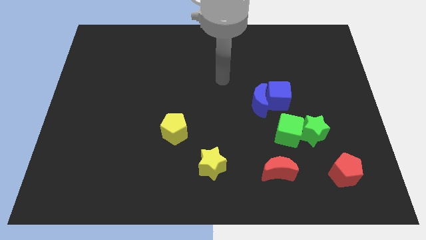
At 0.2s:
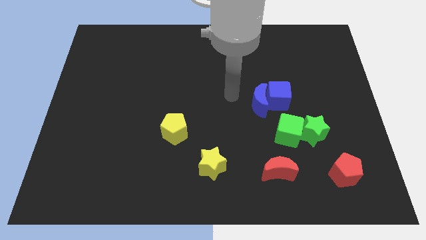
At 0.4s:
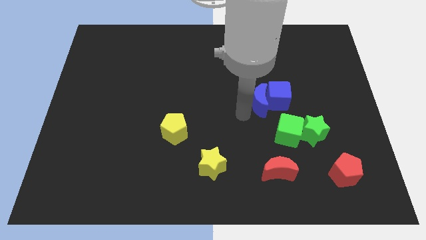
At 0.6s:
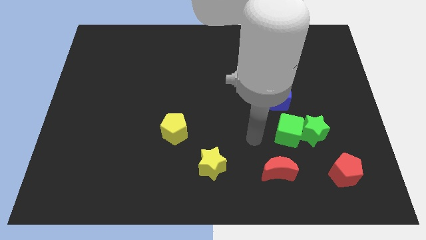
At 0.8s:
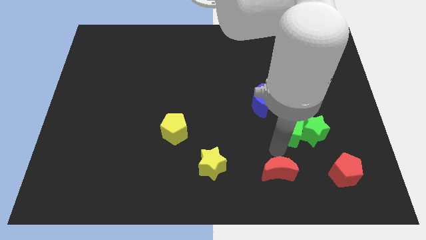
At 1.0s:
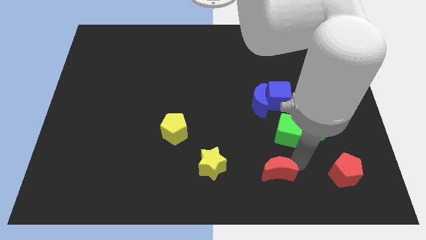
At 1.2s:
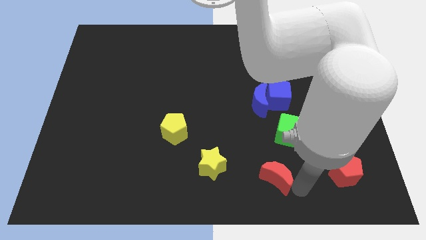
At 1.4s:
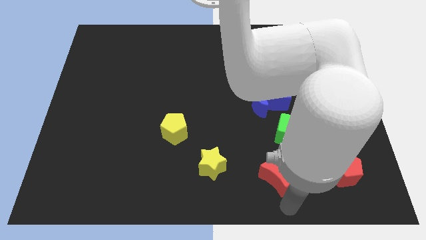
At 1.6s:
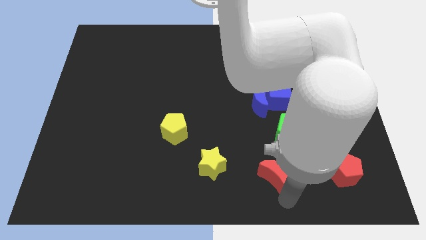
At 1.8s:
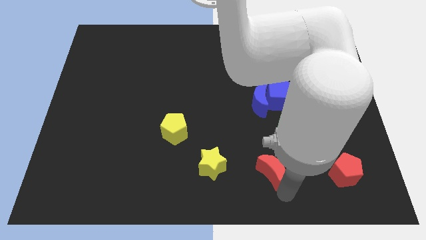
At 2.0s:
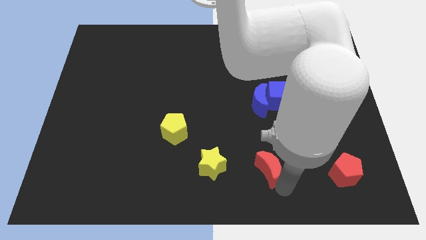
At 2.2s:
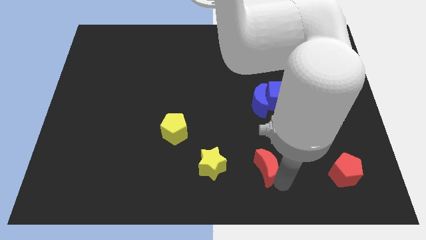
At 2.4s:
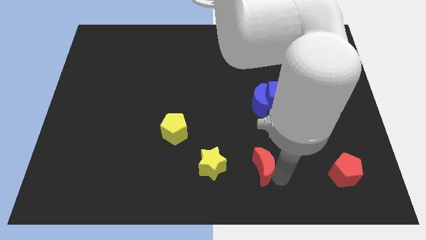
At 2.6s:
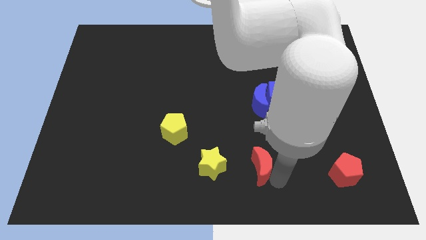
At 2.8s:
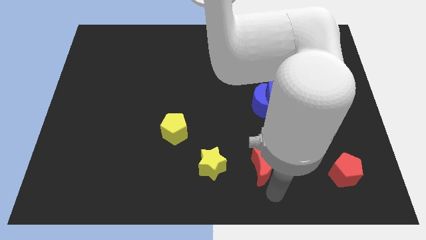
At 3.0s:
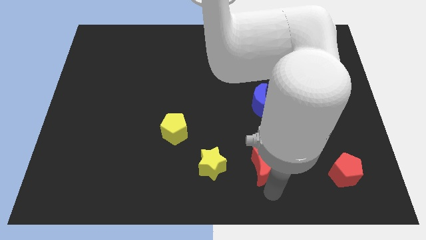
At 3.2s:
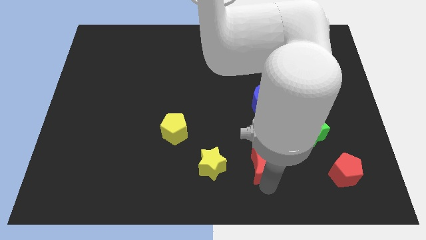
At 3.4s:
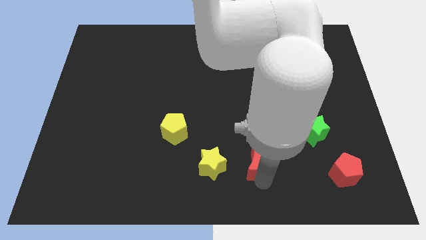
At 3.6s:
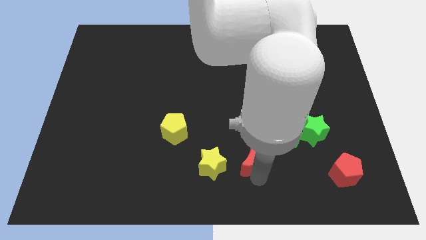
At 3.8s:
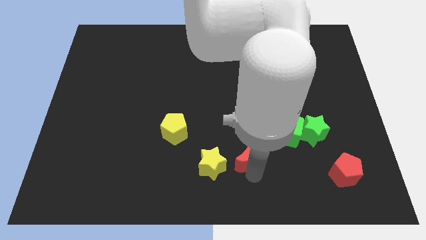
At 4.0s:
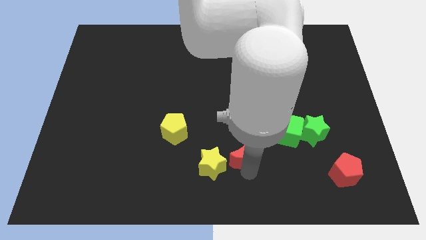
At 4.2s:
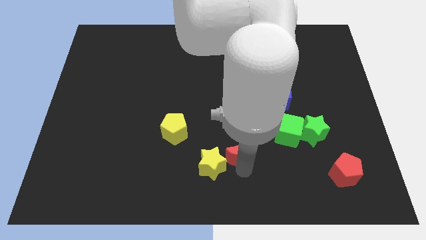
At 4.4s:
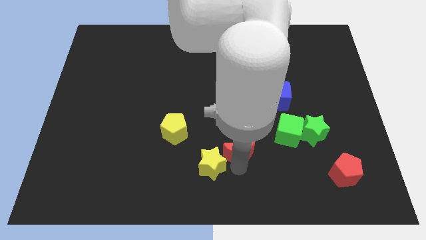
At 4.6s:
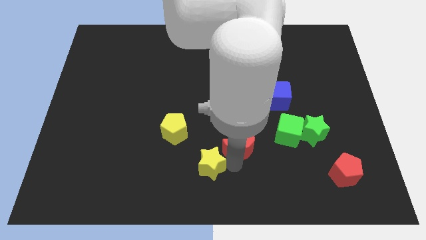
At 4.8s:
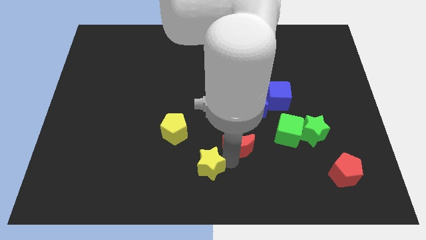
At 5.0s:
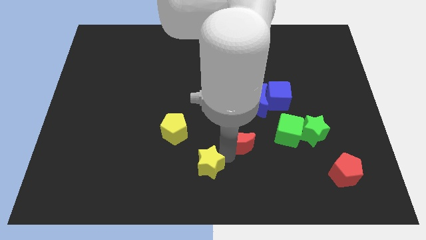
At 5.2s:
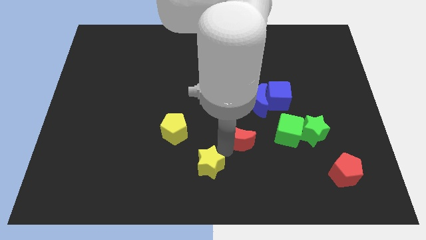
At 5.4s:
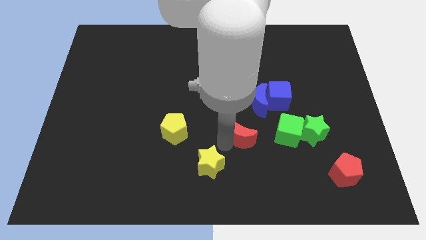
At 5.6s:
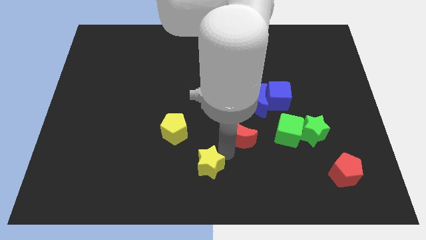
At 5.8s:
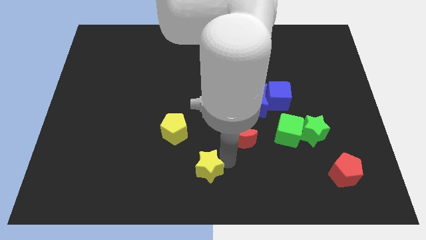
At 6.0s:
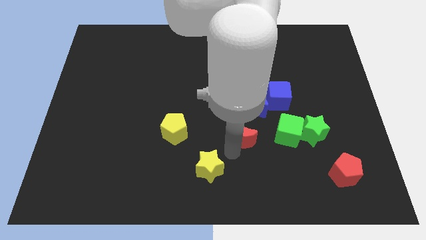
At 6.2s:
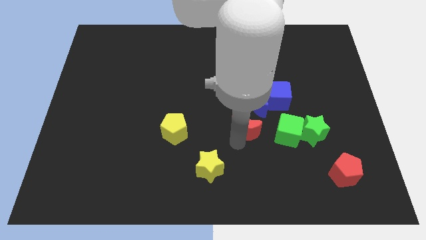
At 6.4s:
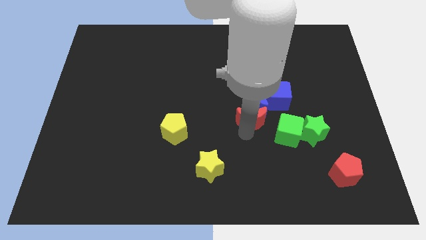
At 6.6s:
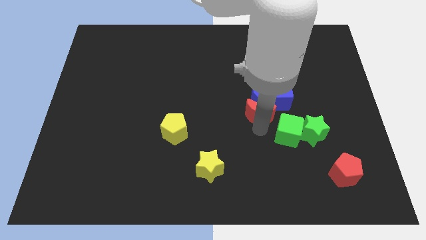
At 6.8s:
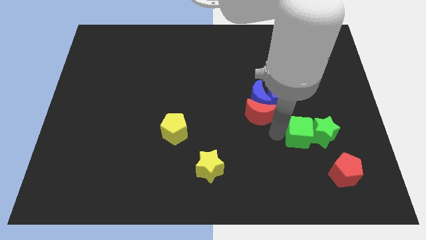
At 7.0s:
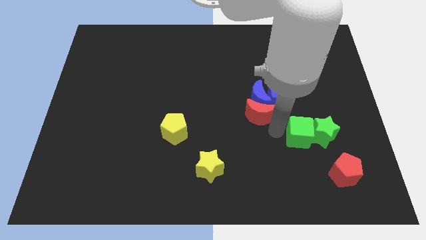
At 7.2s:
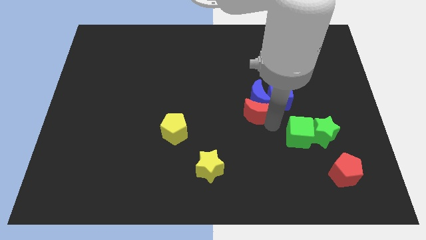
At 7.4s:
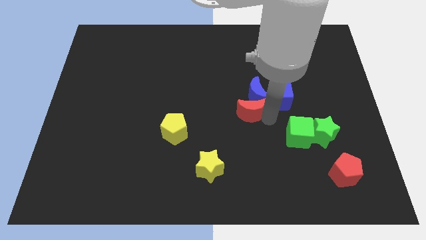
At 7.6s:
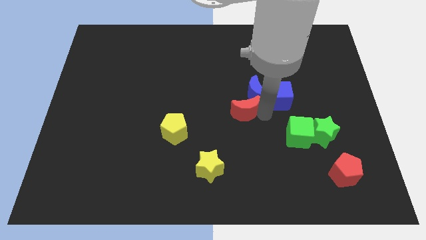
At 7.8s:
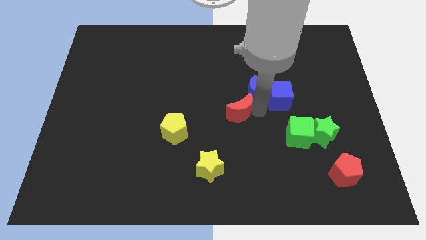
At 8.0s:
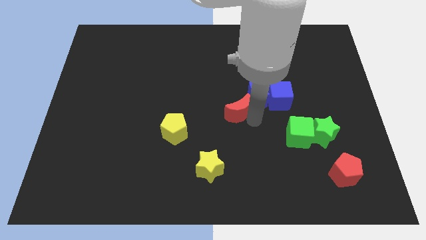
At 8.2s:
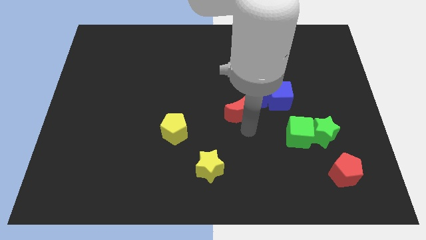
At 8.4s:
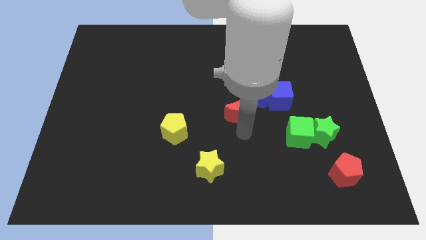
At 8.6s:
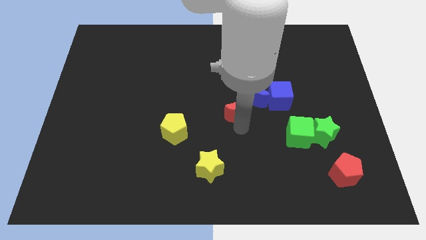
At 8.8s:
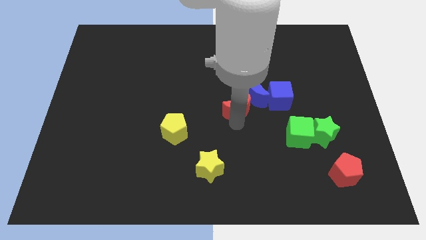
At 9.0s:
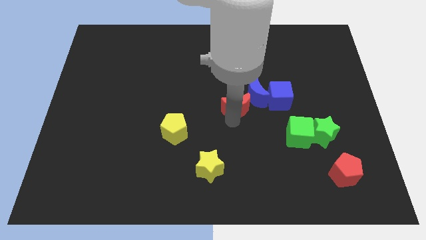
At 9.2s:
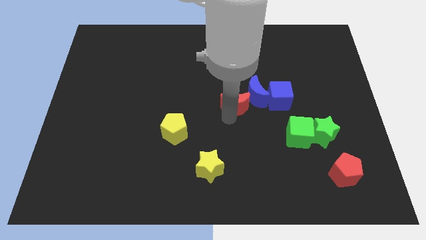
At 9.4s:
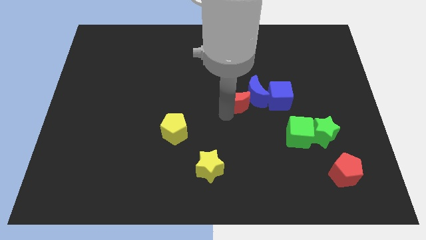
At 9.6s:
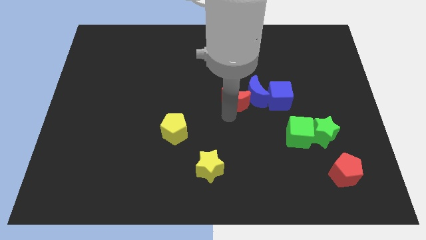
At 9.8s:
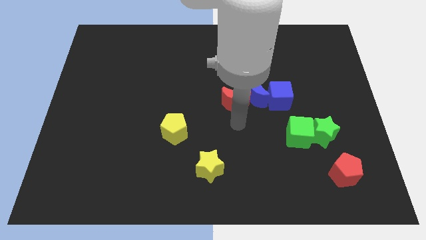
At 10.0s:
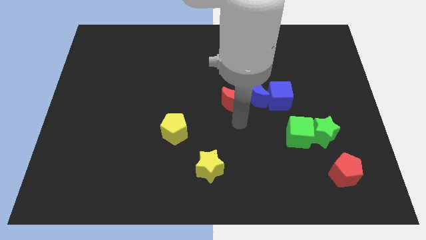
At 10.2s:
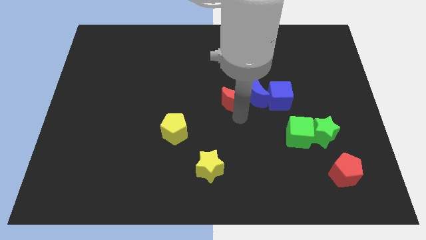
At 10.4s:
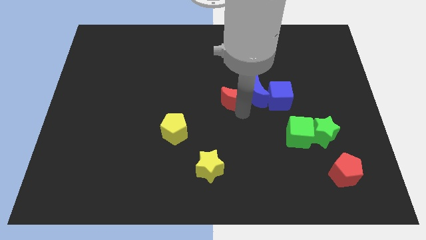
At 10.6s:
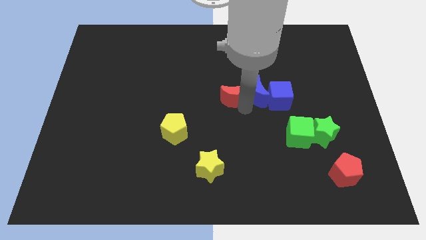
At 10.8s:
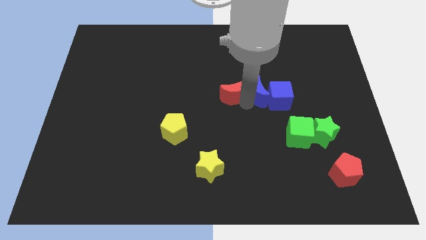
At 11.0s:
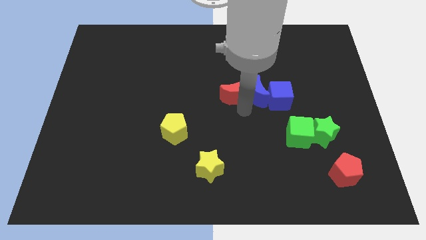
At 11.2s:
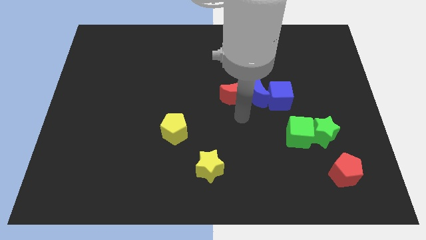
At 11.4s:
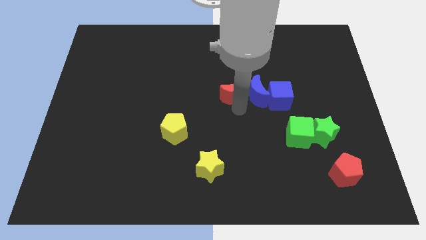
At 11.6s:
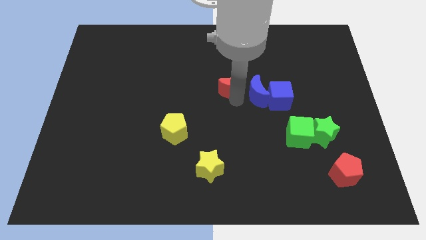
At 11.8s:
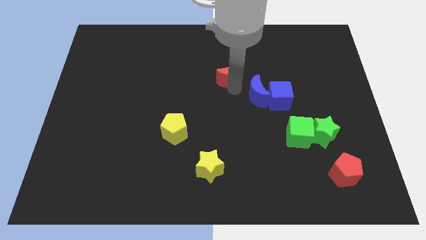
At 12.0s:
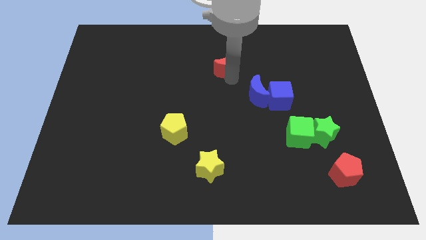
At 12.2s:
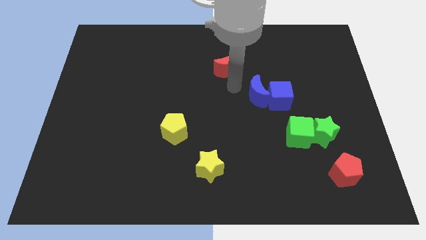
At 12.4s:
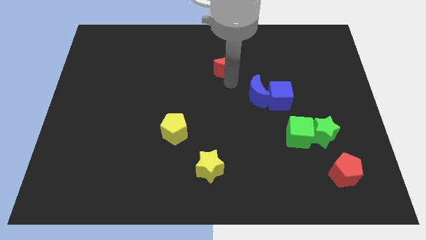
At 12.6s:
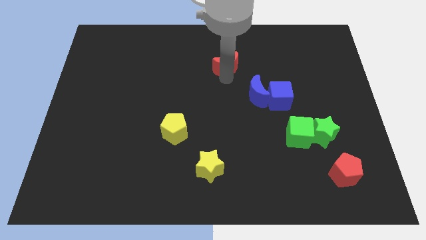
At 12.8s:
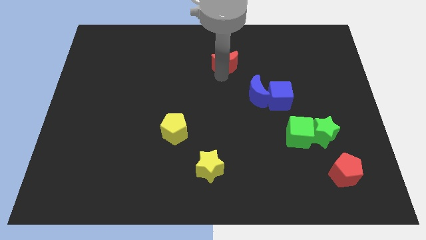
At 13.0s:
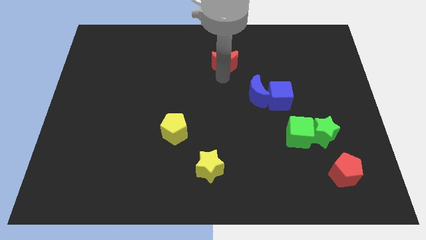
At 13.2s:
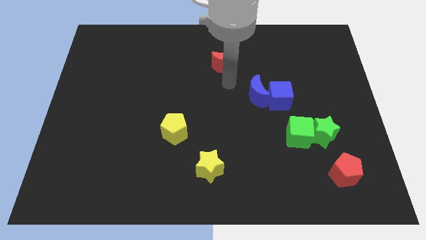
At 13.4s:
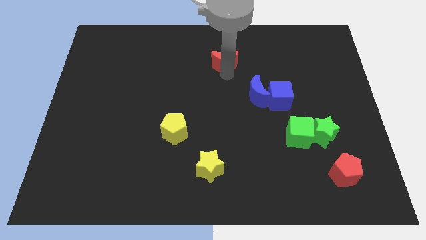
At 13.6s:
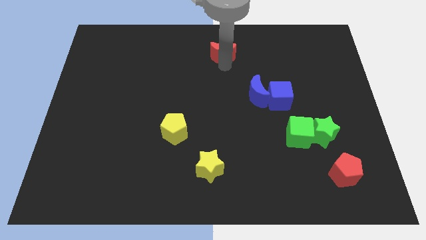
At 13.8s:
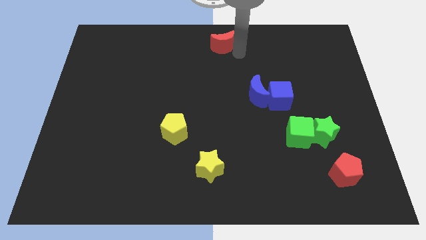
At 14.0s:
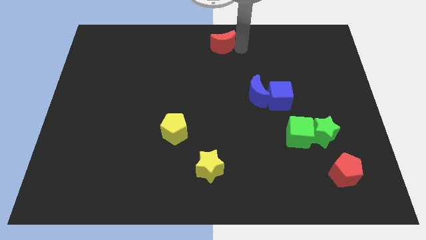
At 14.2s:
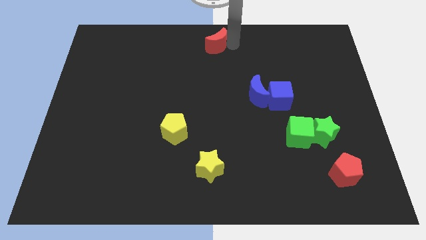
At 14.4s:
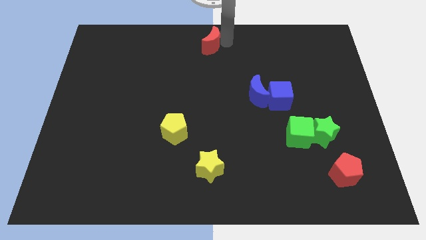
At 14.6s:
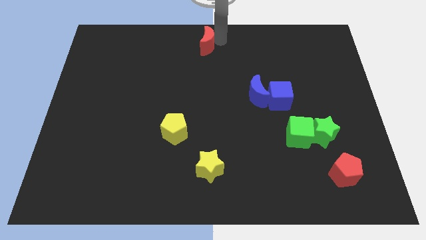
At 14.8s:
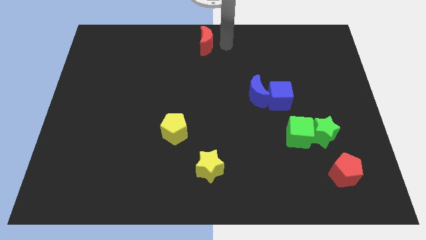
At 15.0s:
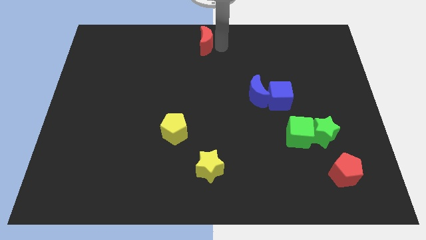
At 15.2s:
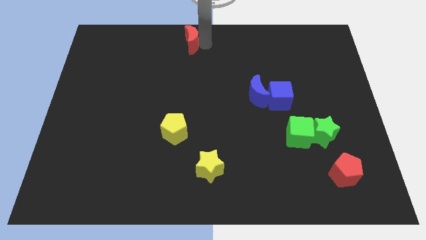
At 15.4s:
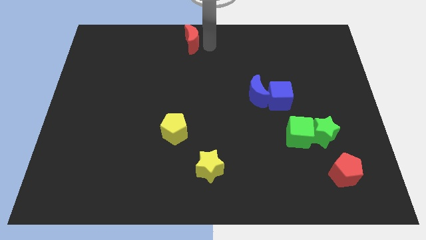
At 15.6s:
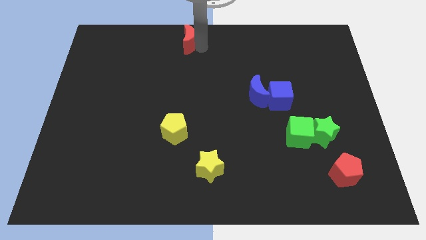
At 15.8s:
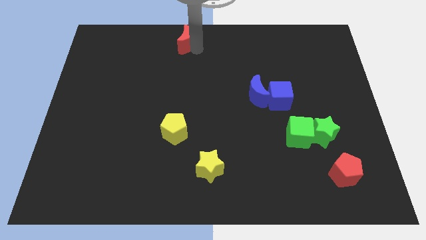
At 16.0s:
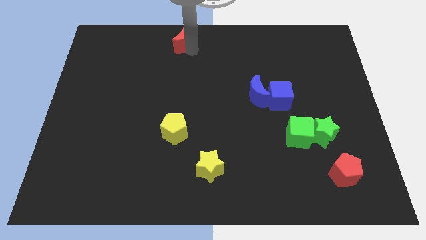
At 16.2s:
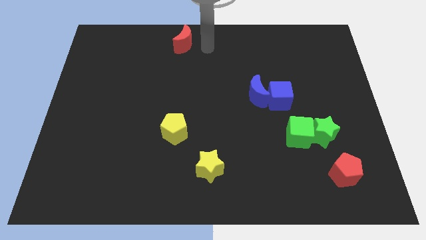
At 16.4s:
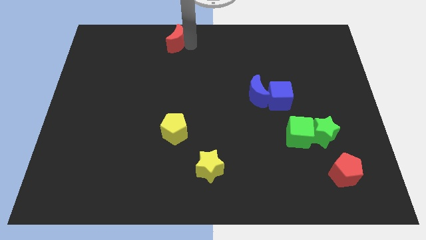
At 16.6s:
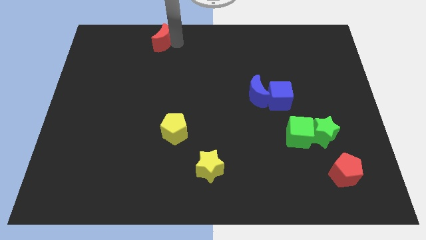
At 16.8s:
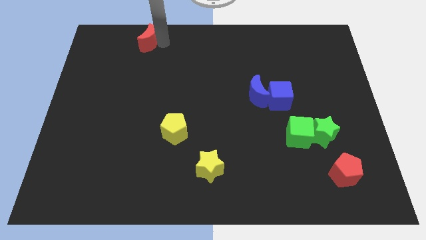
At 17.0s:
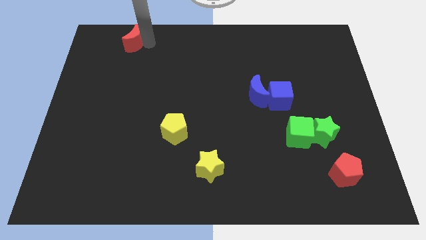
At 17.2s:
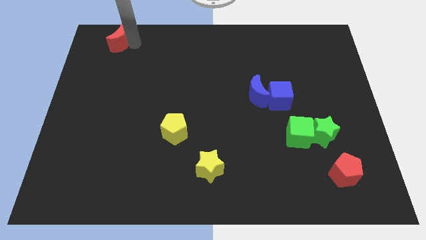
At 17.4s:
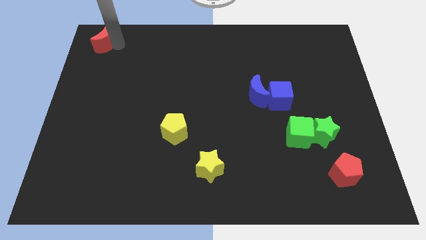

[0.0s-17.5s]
push the red moon to the top left of the board
